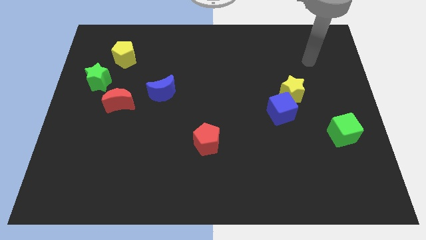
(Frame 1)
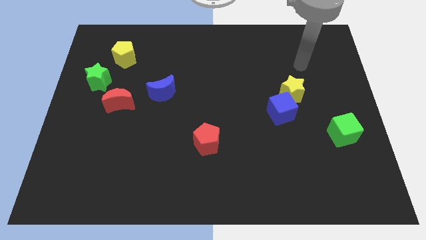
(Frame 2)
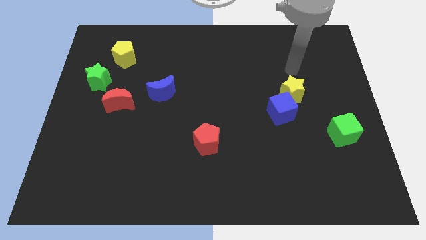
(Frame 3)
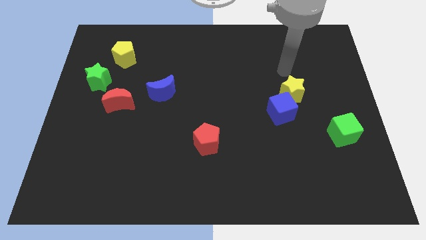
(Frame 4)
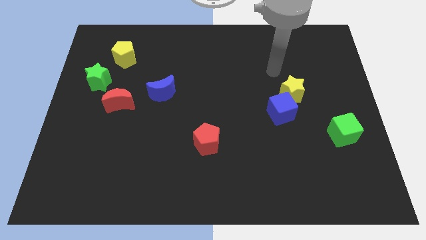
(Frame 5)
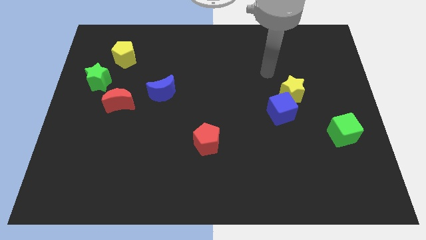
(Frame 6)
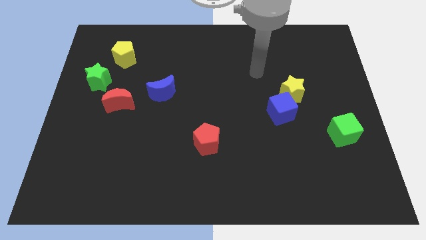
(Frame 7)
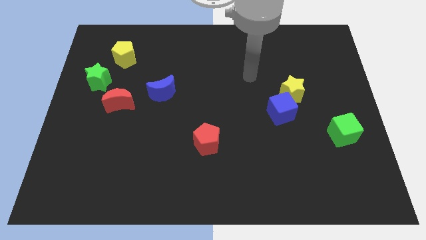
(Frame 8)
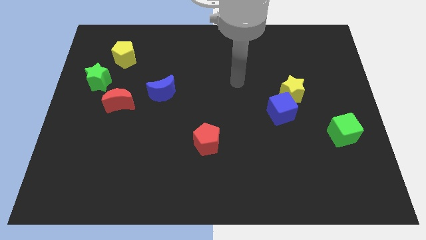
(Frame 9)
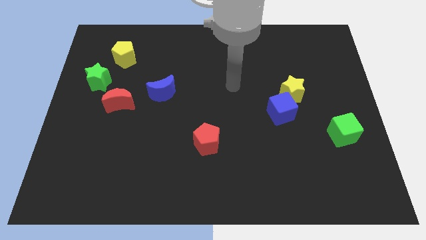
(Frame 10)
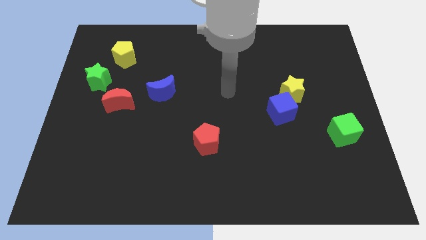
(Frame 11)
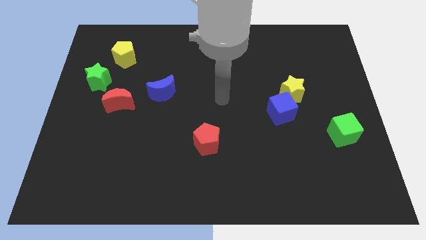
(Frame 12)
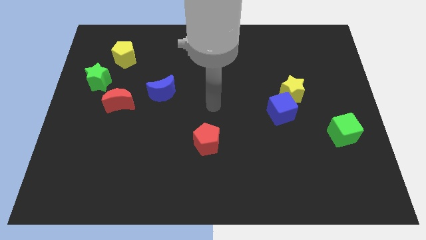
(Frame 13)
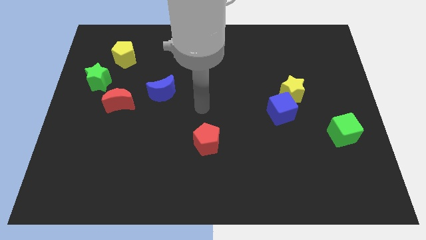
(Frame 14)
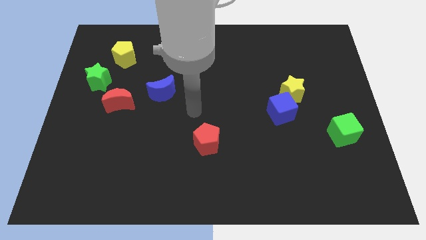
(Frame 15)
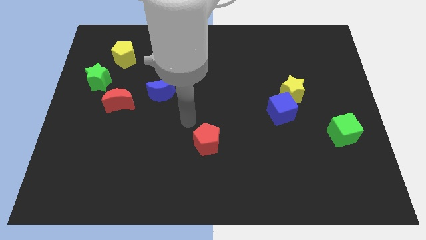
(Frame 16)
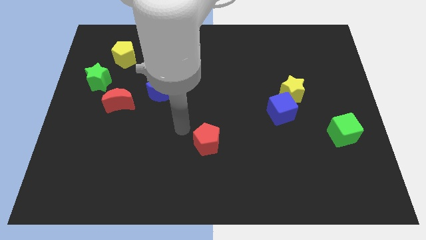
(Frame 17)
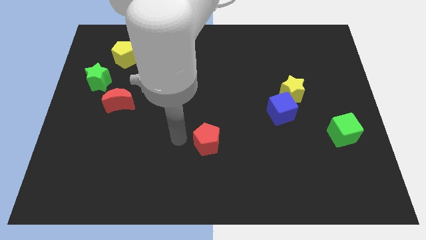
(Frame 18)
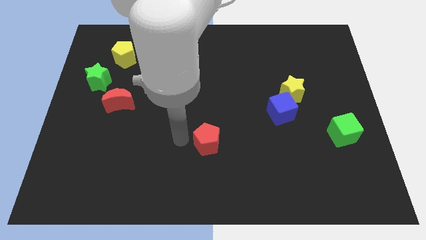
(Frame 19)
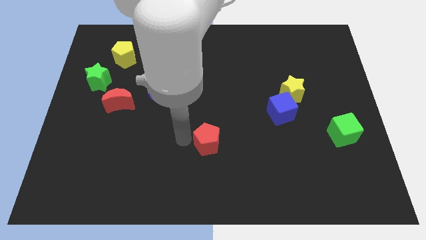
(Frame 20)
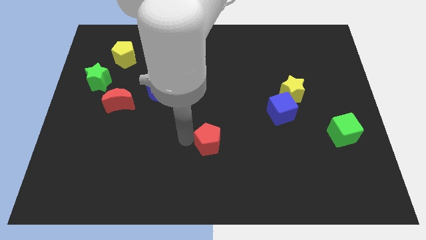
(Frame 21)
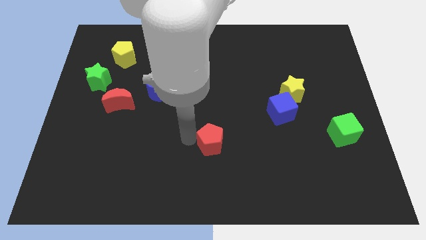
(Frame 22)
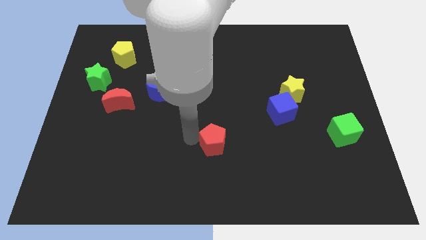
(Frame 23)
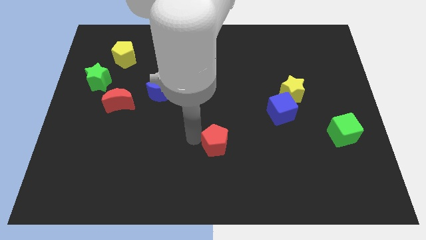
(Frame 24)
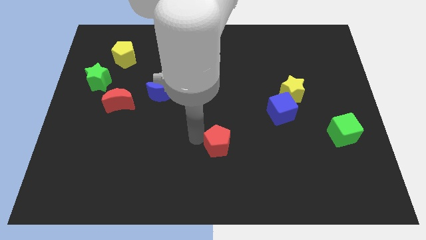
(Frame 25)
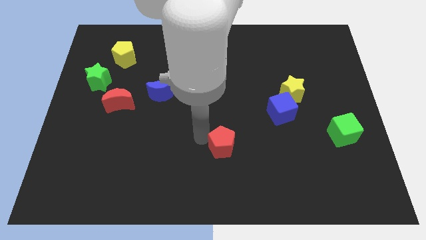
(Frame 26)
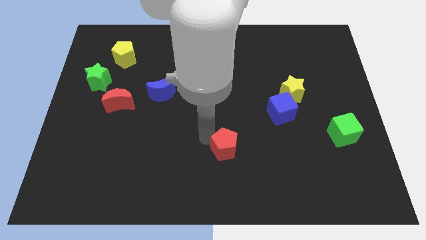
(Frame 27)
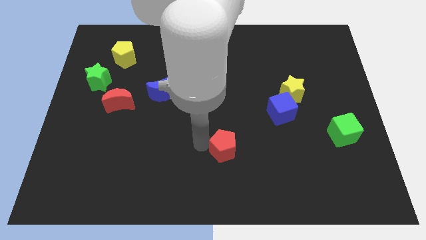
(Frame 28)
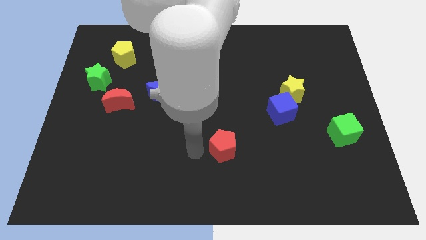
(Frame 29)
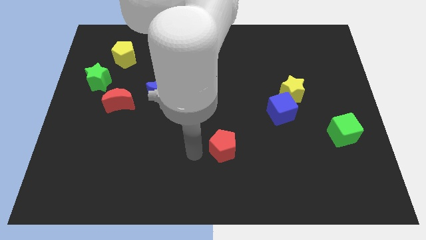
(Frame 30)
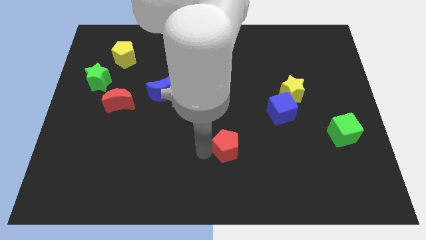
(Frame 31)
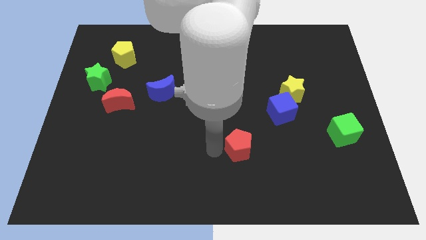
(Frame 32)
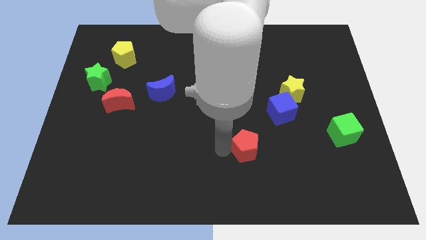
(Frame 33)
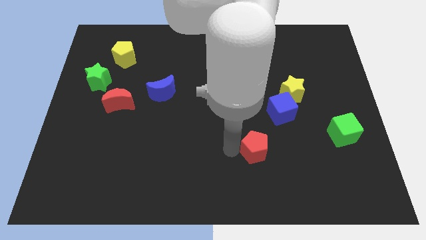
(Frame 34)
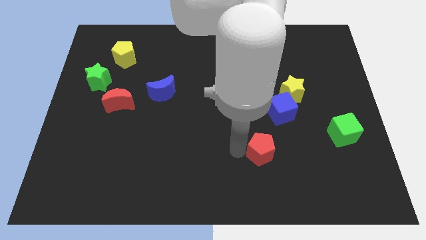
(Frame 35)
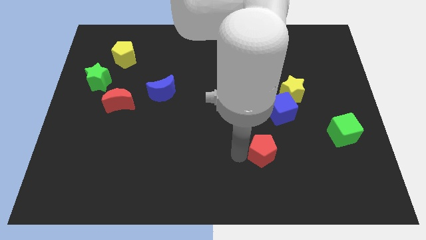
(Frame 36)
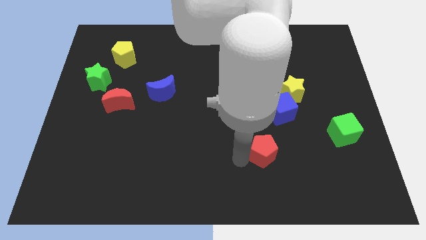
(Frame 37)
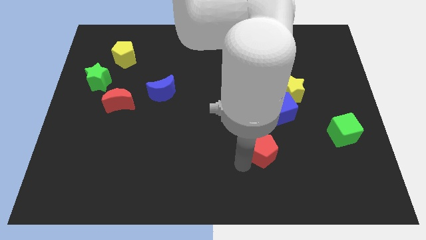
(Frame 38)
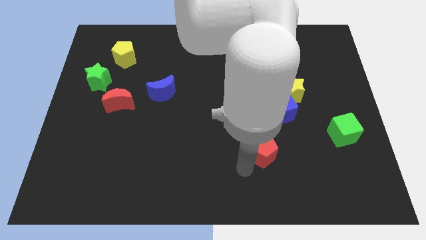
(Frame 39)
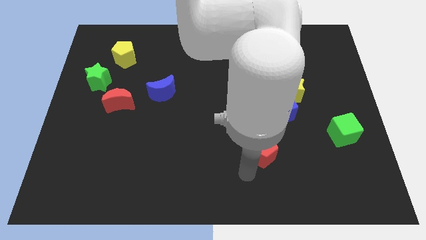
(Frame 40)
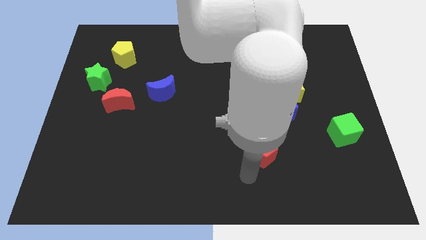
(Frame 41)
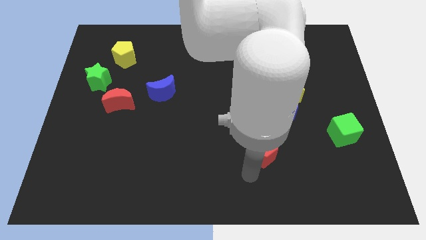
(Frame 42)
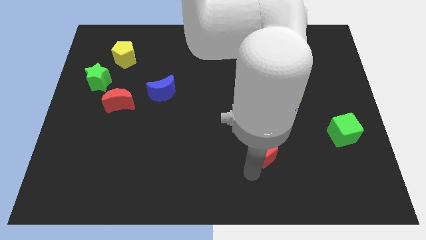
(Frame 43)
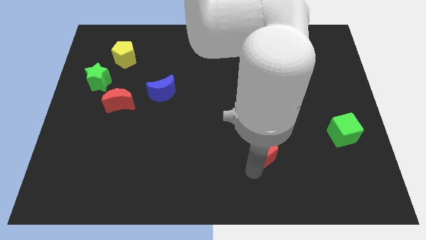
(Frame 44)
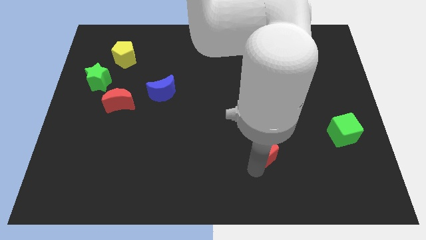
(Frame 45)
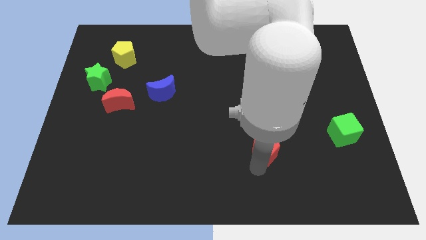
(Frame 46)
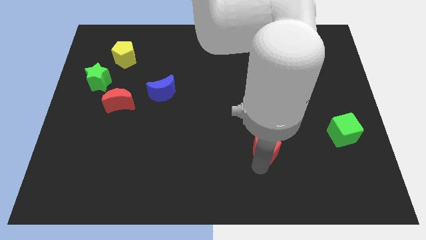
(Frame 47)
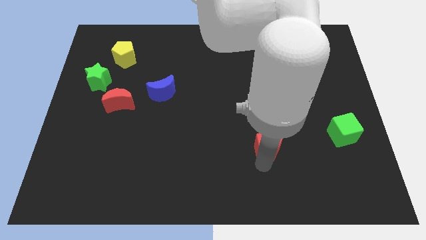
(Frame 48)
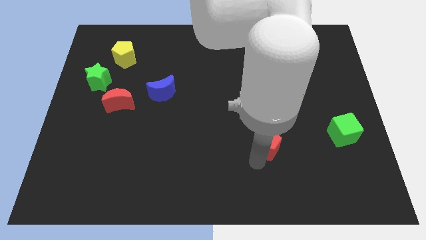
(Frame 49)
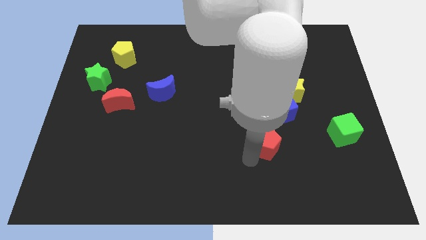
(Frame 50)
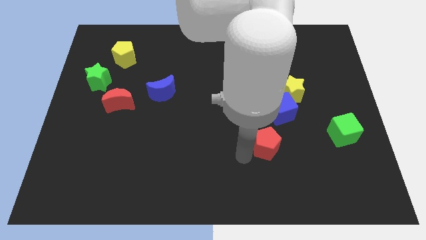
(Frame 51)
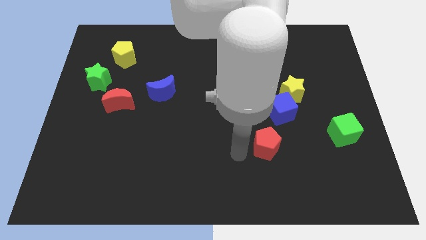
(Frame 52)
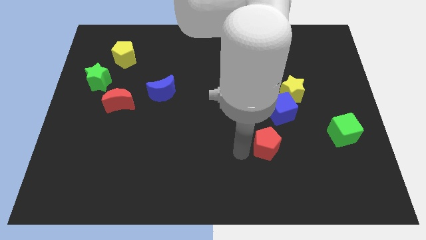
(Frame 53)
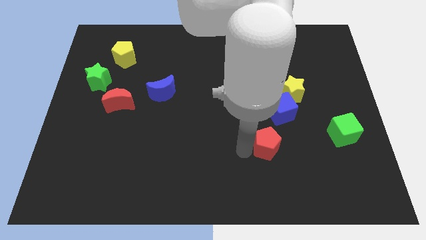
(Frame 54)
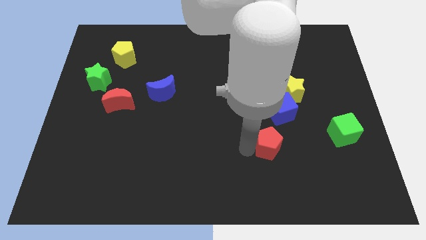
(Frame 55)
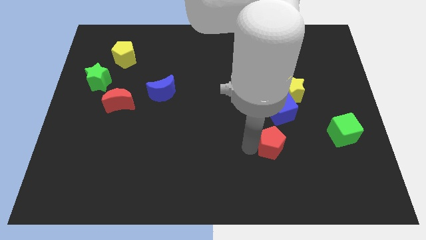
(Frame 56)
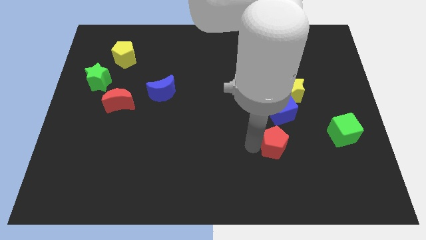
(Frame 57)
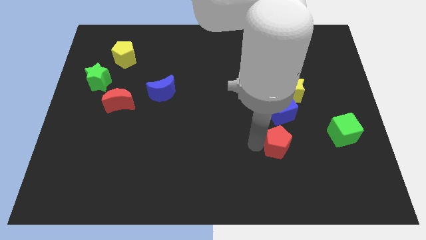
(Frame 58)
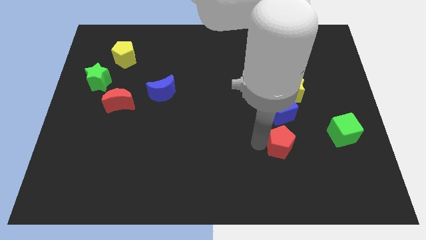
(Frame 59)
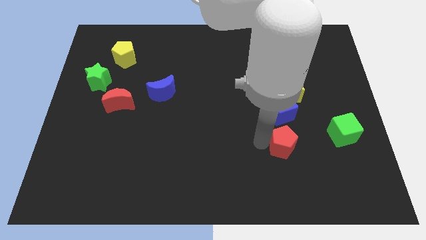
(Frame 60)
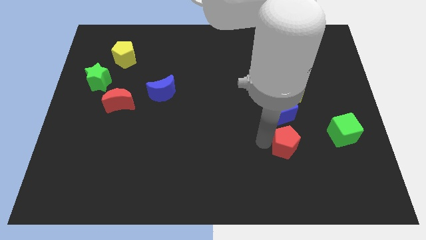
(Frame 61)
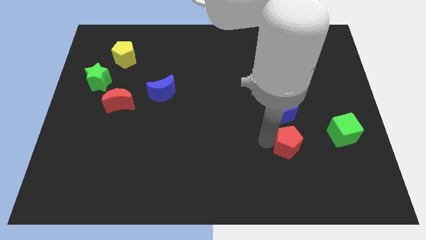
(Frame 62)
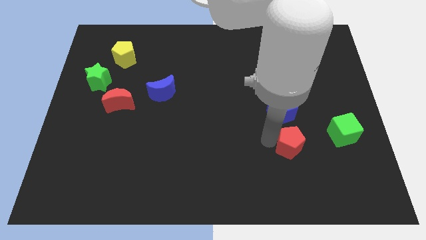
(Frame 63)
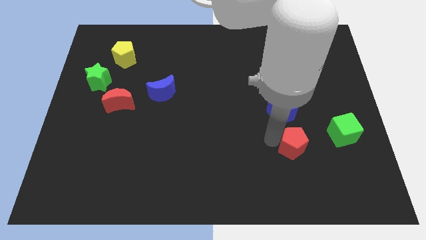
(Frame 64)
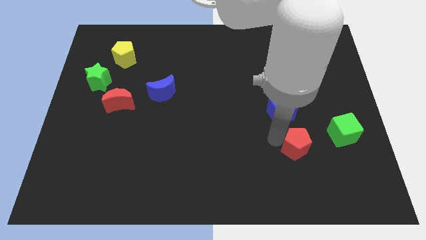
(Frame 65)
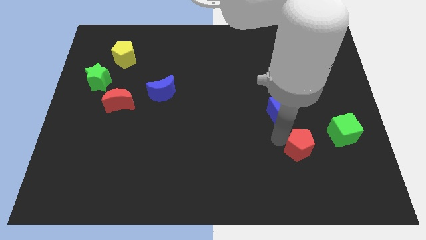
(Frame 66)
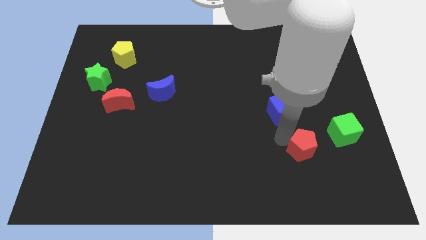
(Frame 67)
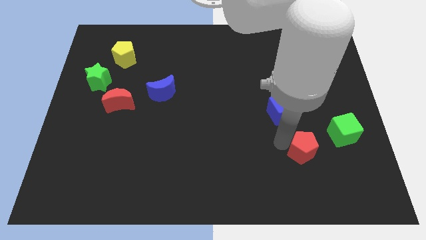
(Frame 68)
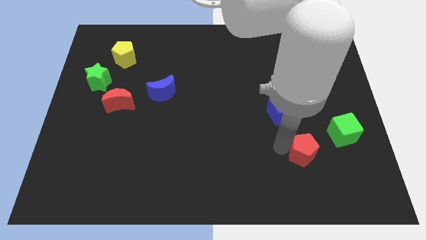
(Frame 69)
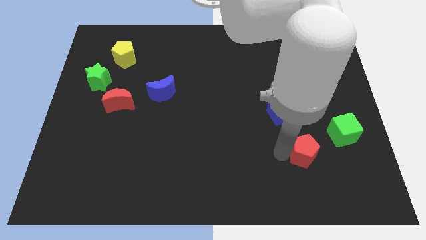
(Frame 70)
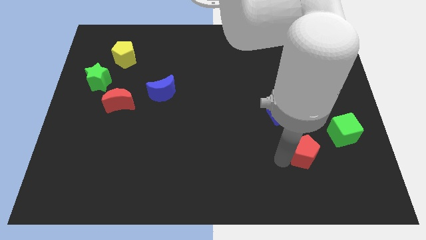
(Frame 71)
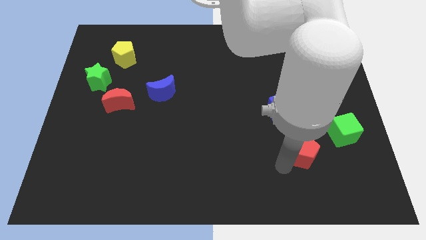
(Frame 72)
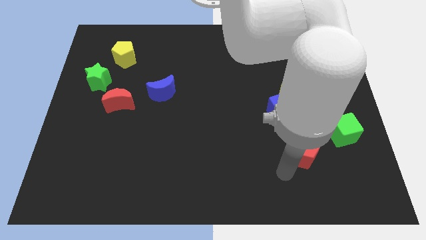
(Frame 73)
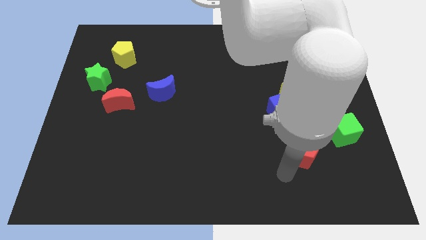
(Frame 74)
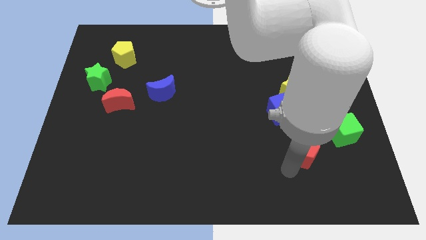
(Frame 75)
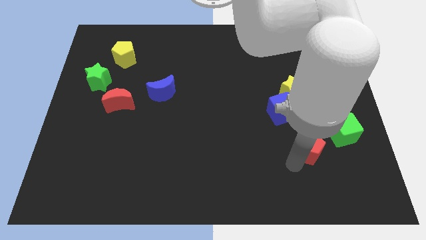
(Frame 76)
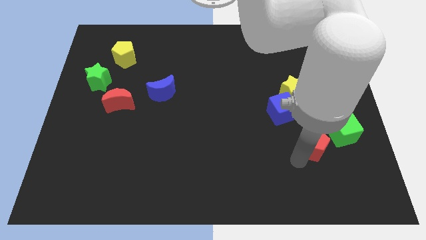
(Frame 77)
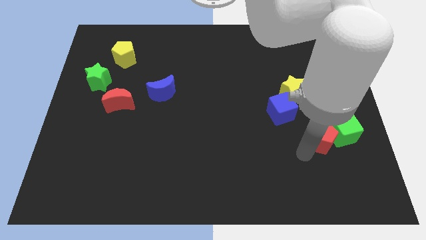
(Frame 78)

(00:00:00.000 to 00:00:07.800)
slide the red pentagon towards the green cube
